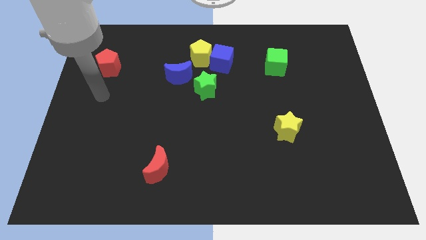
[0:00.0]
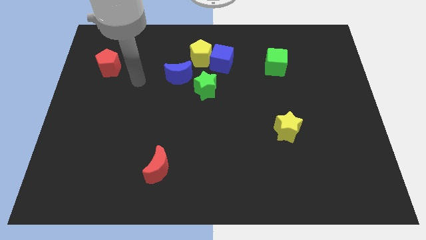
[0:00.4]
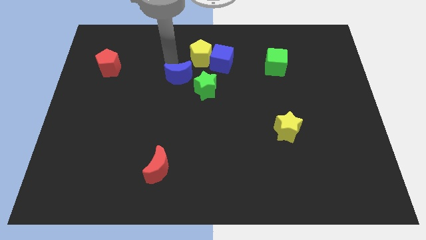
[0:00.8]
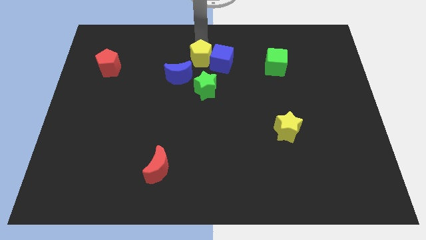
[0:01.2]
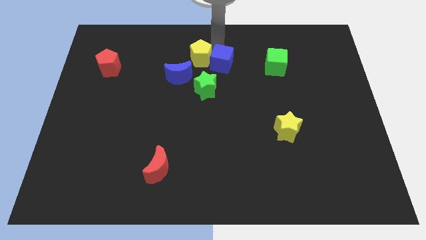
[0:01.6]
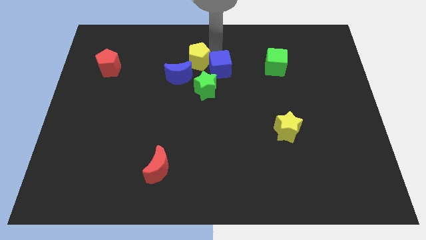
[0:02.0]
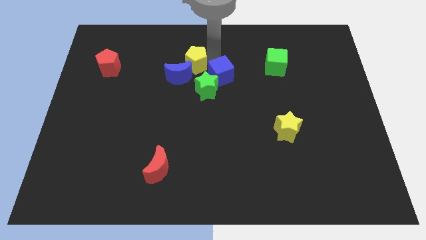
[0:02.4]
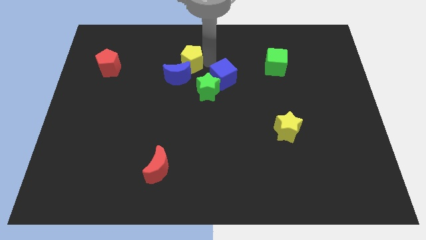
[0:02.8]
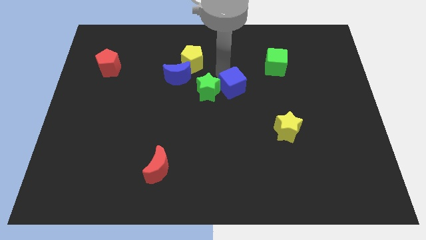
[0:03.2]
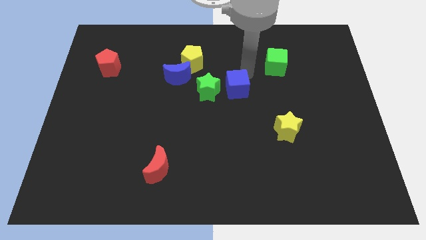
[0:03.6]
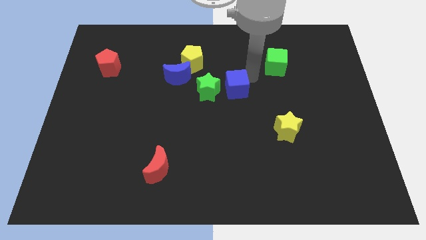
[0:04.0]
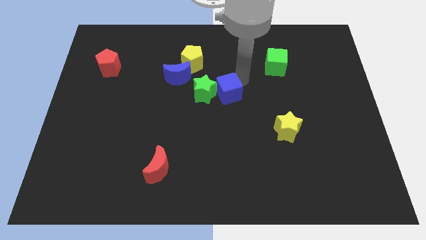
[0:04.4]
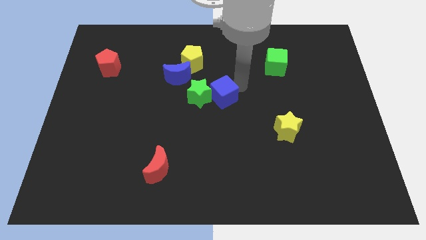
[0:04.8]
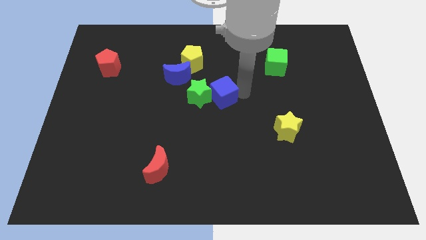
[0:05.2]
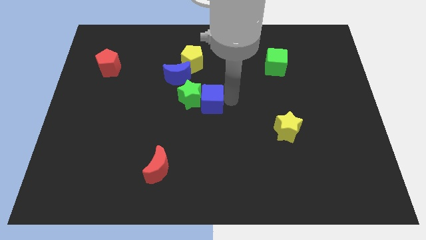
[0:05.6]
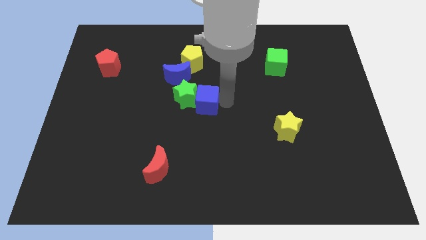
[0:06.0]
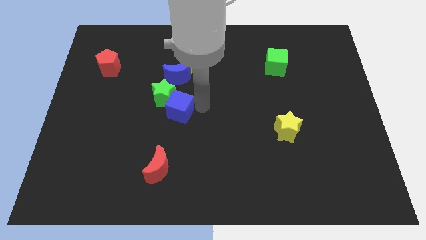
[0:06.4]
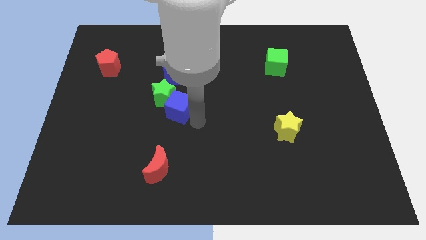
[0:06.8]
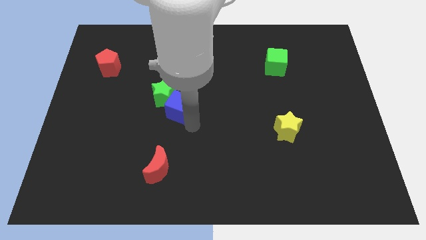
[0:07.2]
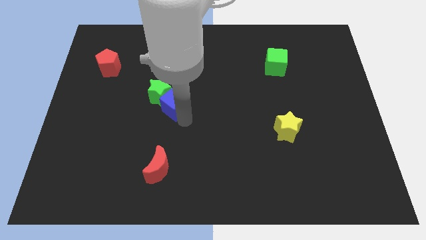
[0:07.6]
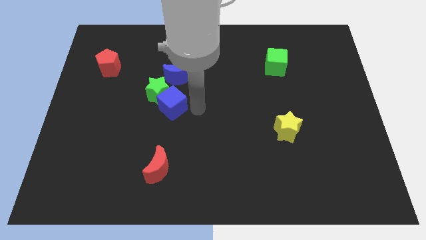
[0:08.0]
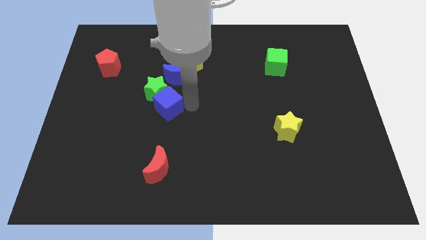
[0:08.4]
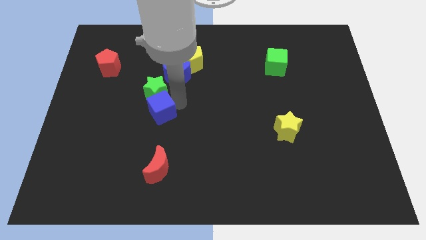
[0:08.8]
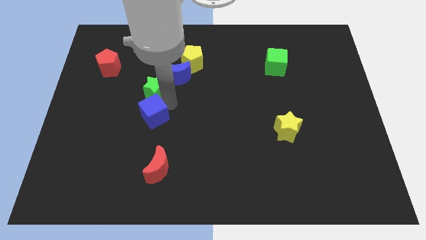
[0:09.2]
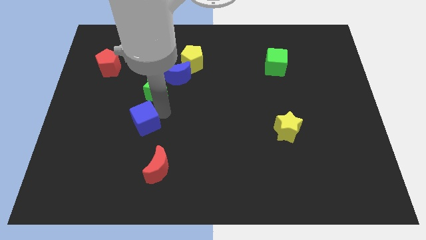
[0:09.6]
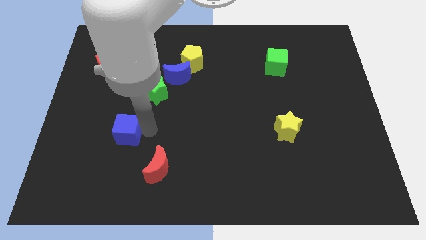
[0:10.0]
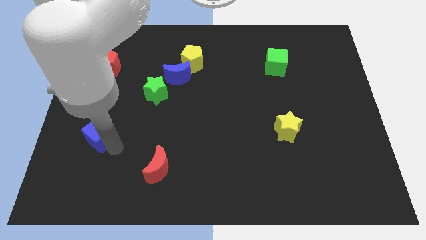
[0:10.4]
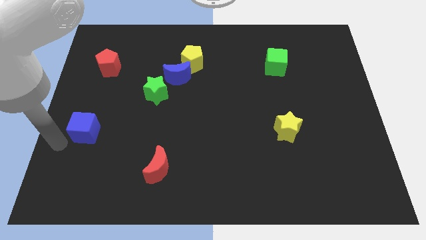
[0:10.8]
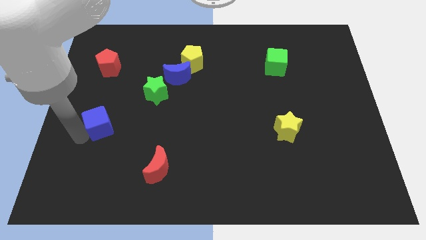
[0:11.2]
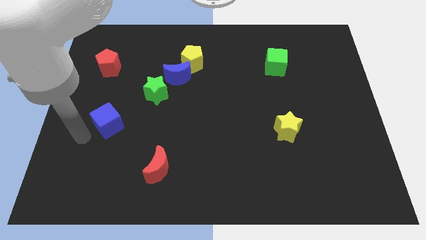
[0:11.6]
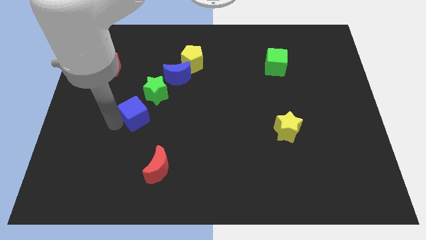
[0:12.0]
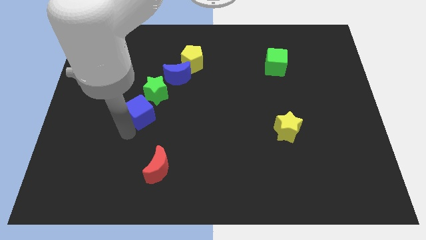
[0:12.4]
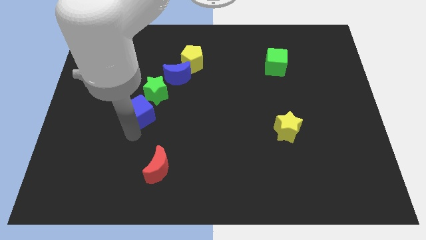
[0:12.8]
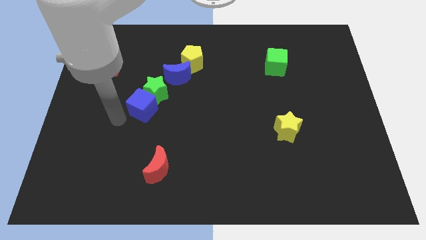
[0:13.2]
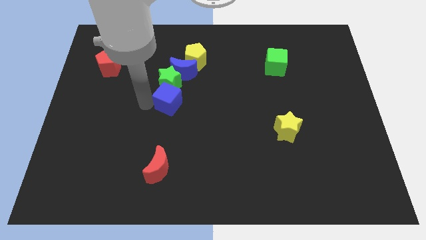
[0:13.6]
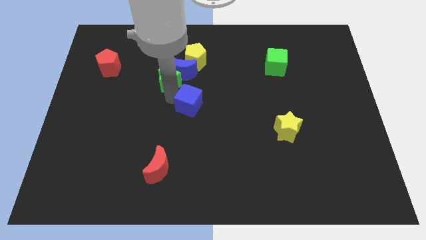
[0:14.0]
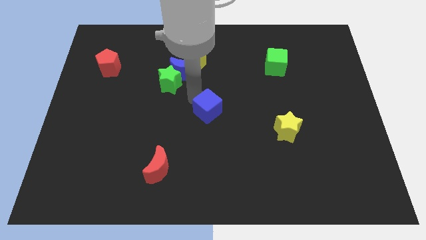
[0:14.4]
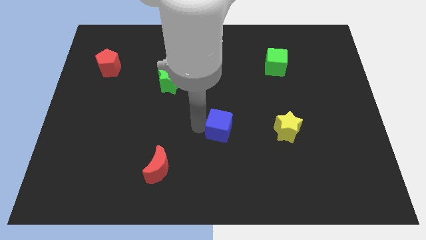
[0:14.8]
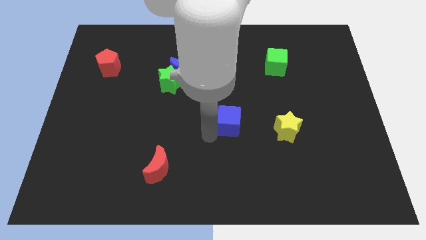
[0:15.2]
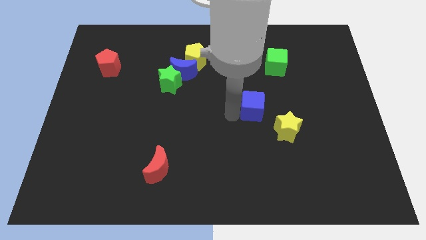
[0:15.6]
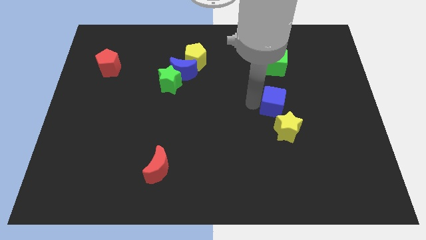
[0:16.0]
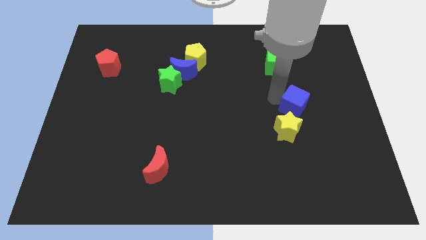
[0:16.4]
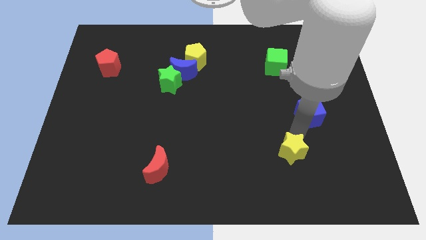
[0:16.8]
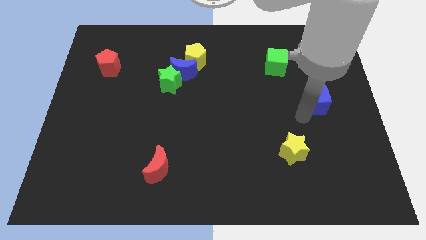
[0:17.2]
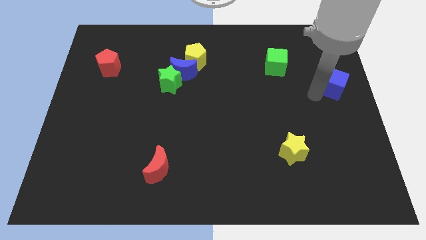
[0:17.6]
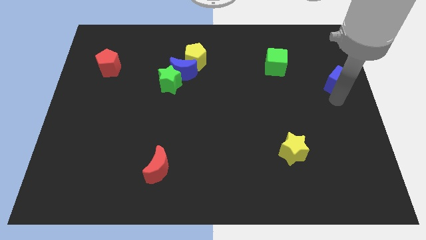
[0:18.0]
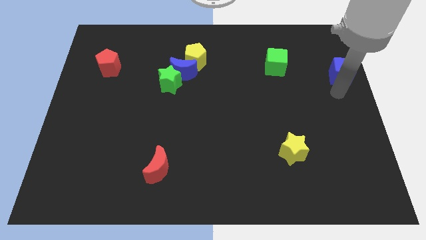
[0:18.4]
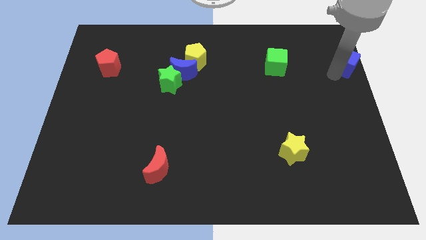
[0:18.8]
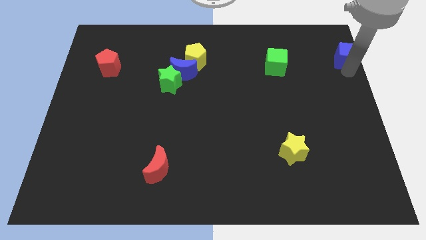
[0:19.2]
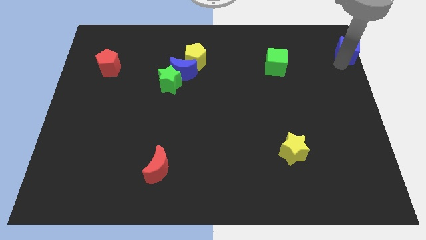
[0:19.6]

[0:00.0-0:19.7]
move the blue cube to the top right
